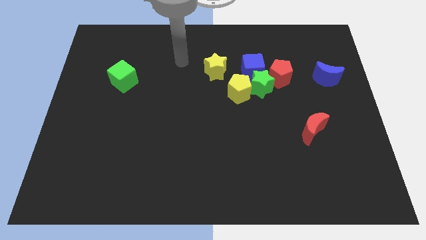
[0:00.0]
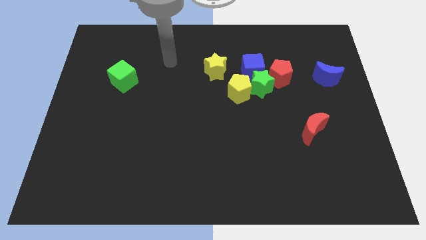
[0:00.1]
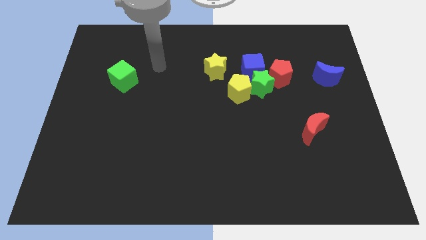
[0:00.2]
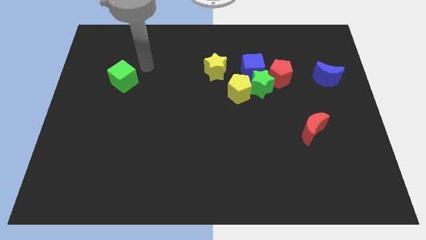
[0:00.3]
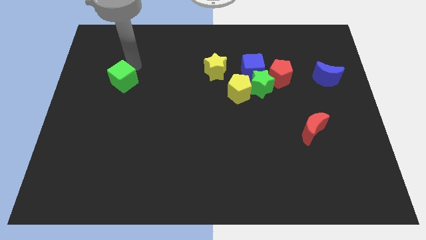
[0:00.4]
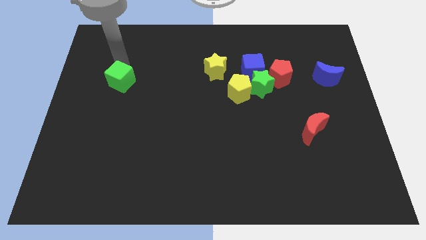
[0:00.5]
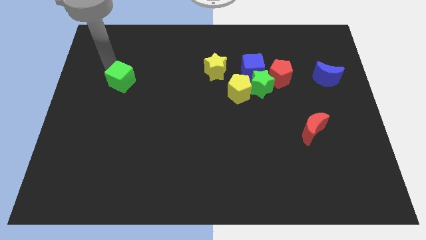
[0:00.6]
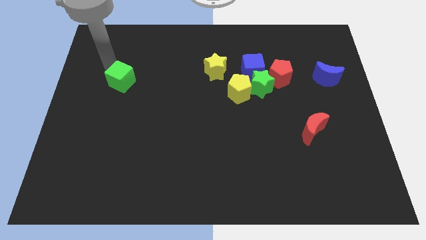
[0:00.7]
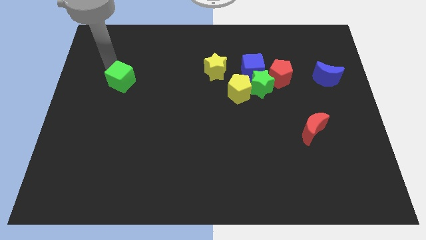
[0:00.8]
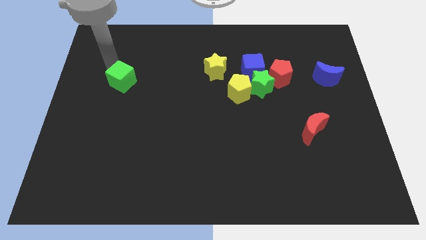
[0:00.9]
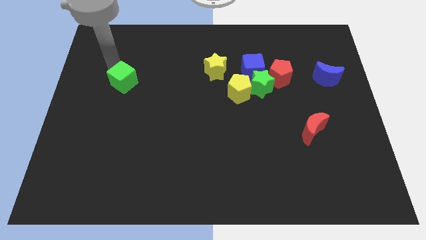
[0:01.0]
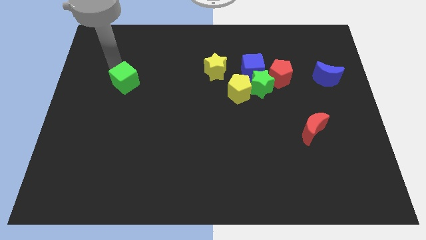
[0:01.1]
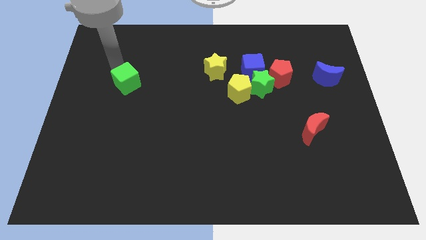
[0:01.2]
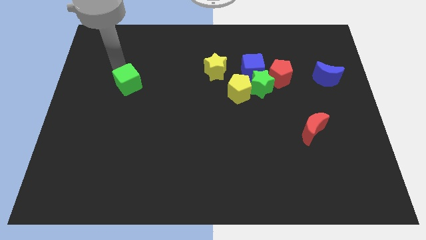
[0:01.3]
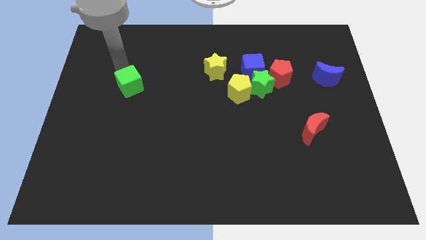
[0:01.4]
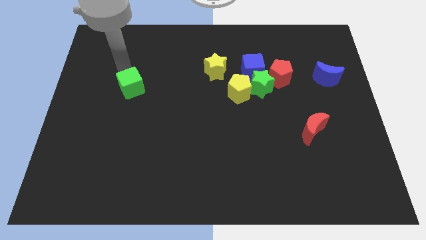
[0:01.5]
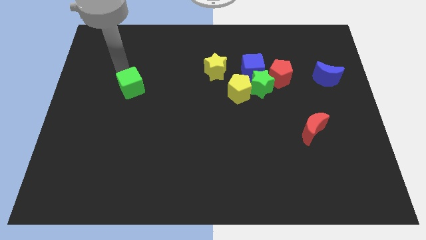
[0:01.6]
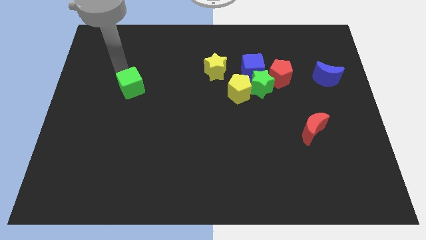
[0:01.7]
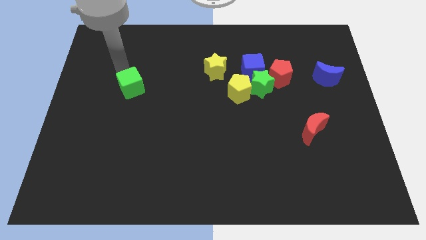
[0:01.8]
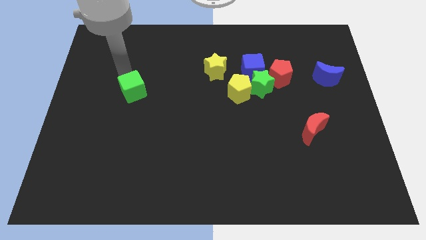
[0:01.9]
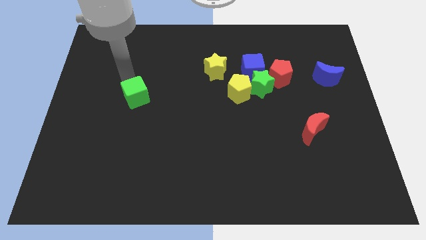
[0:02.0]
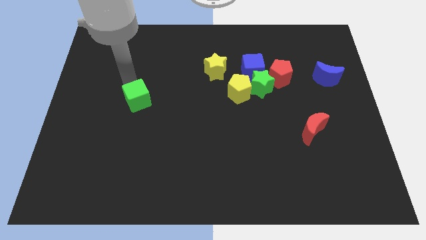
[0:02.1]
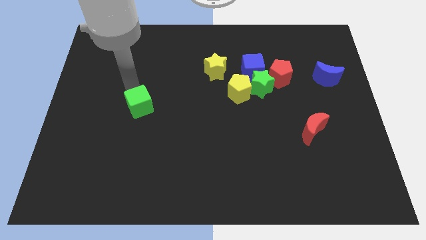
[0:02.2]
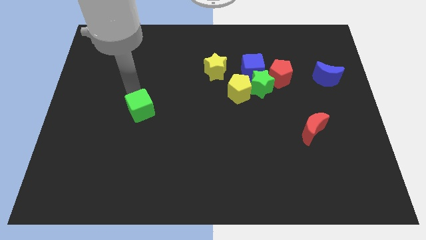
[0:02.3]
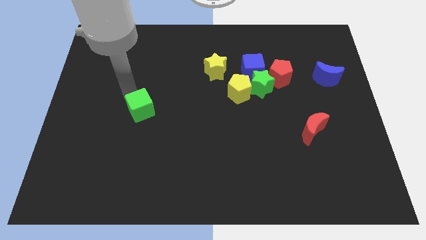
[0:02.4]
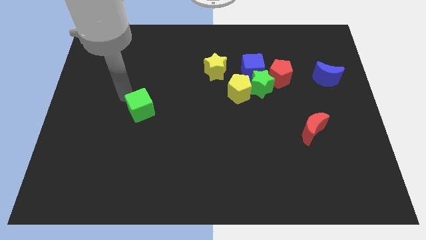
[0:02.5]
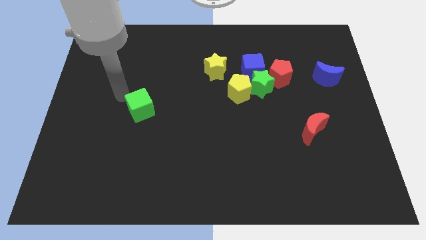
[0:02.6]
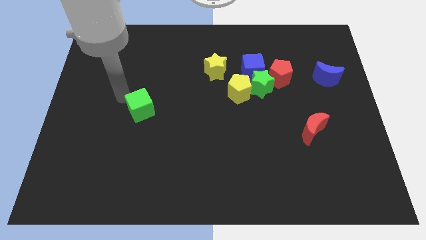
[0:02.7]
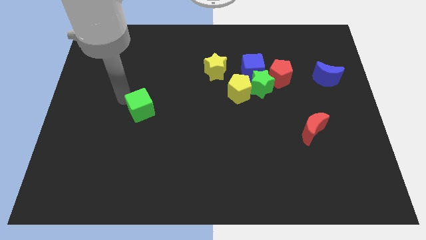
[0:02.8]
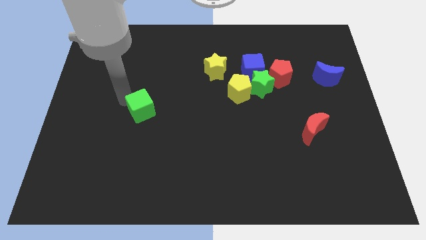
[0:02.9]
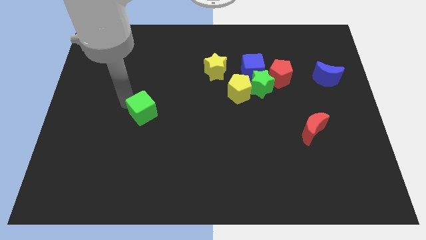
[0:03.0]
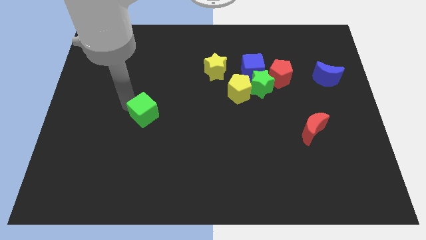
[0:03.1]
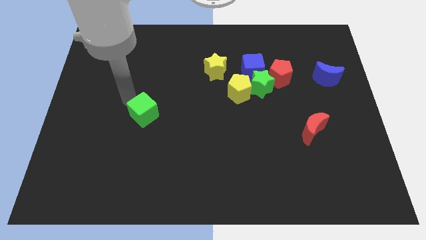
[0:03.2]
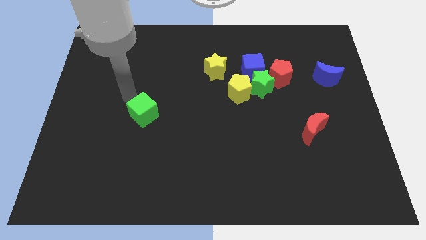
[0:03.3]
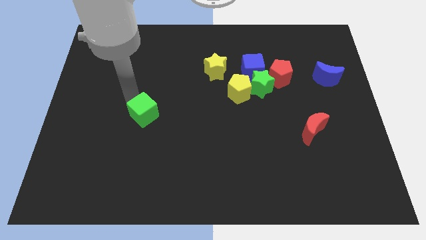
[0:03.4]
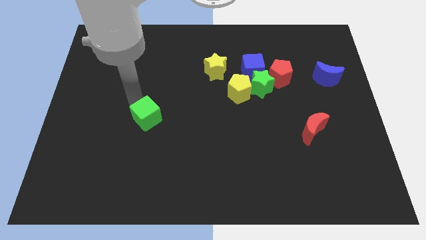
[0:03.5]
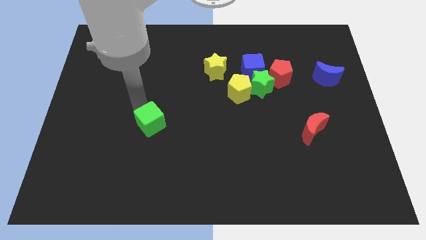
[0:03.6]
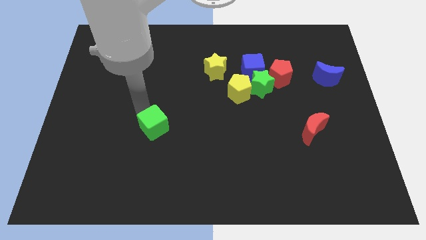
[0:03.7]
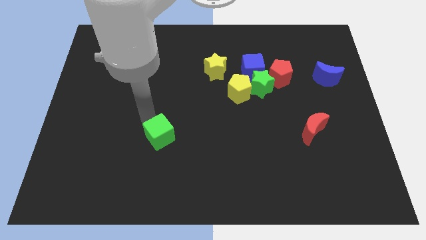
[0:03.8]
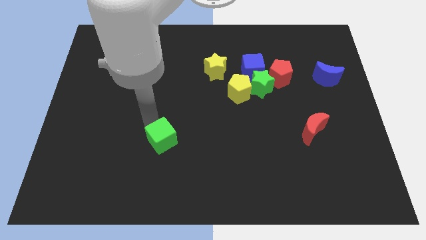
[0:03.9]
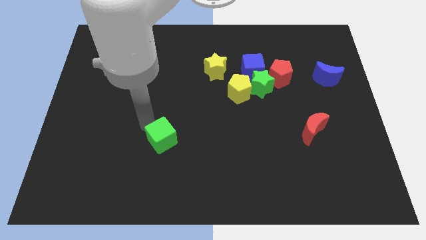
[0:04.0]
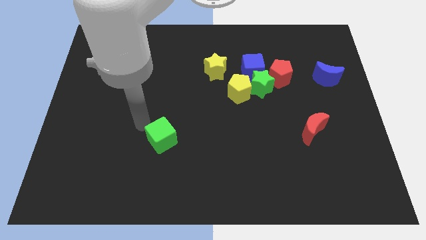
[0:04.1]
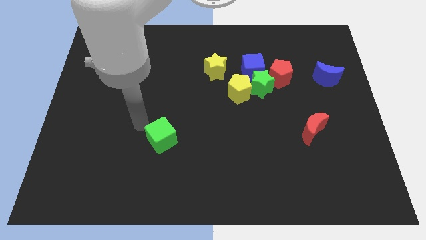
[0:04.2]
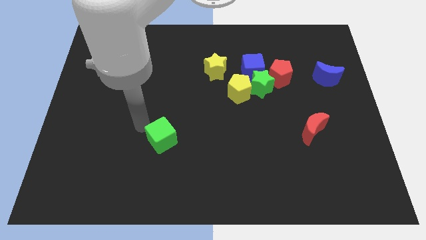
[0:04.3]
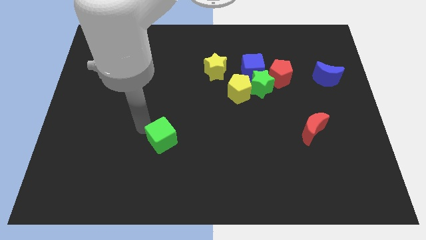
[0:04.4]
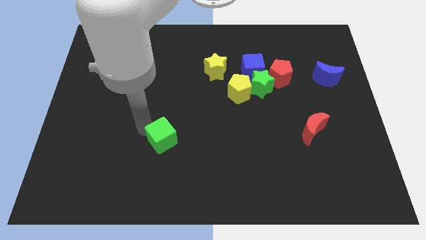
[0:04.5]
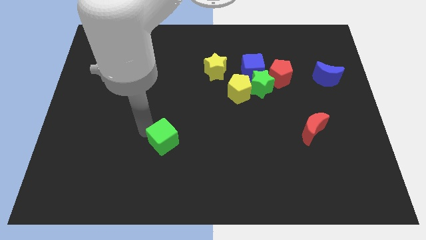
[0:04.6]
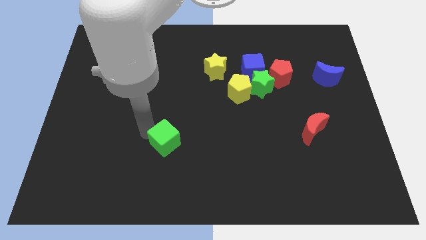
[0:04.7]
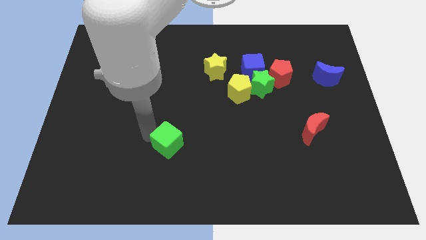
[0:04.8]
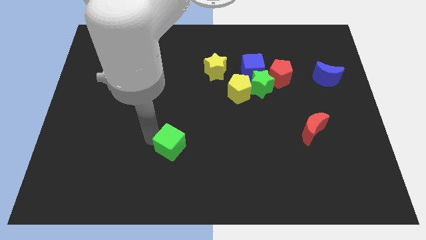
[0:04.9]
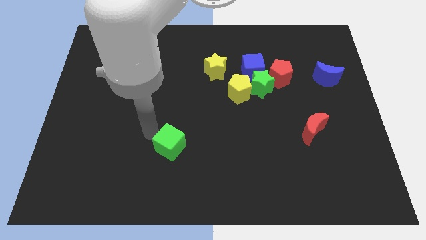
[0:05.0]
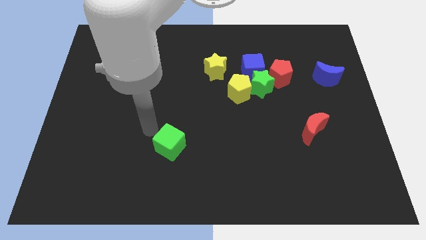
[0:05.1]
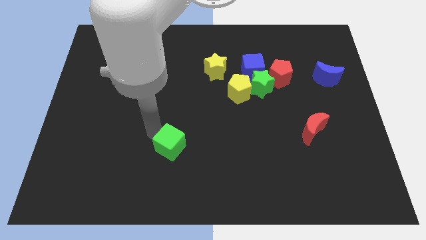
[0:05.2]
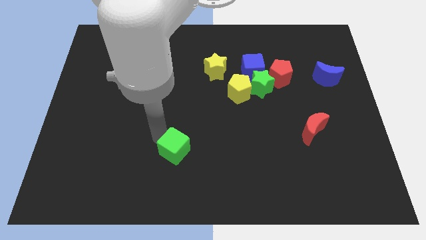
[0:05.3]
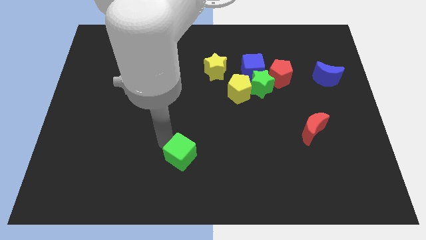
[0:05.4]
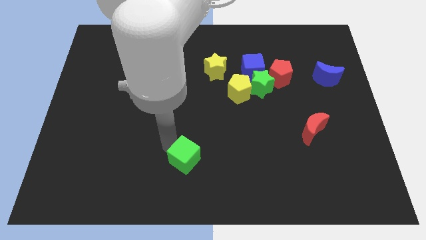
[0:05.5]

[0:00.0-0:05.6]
put the green cube to the bottom

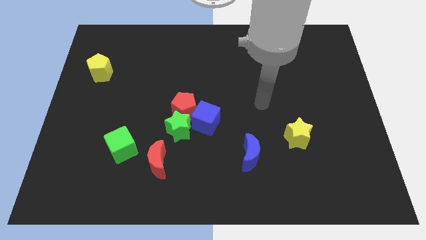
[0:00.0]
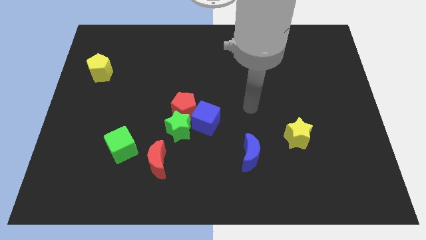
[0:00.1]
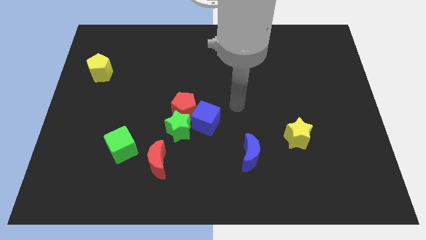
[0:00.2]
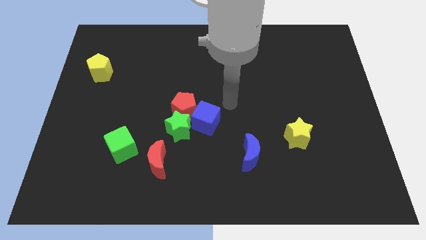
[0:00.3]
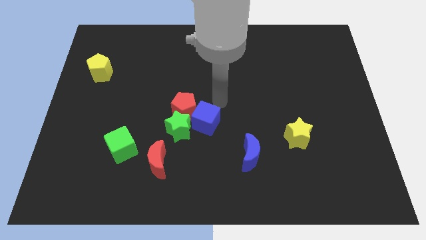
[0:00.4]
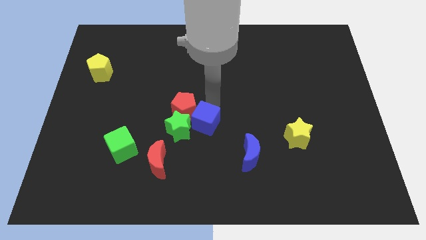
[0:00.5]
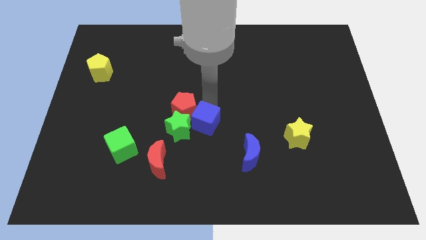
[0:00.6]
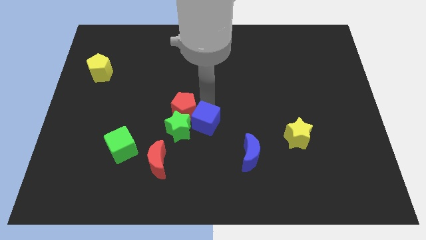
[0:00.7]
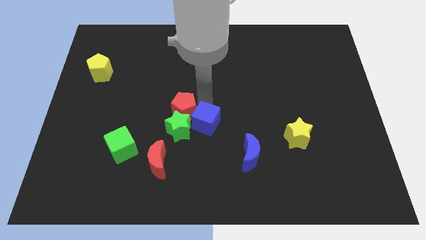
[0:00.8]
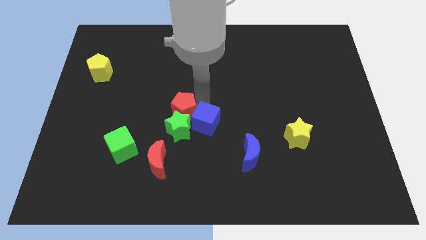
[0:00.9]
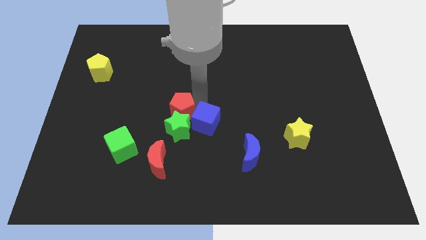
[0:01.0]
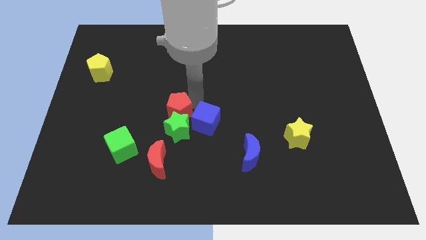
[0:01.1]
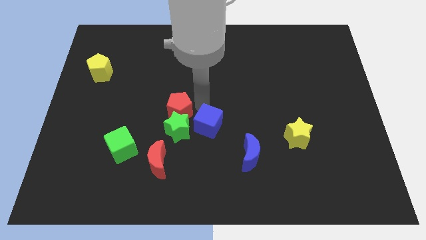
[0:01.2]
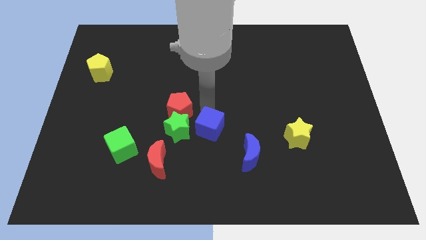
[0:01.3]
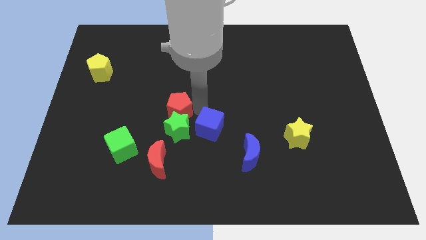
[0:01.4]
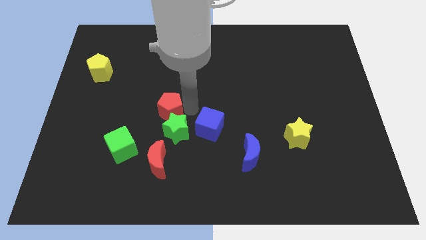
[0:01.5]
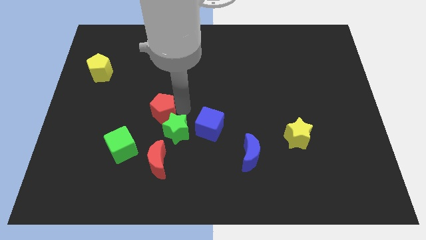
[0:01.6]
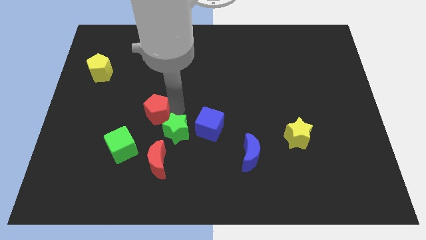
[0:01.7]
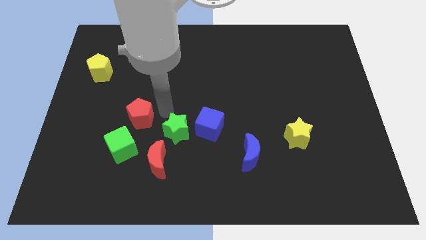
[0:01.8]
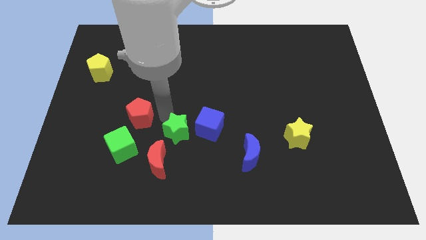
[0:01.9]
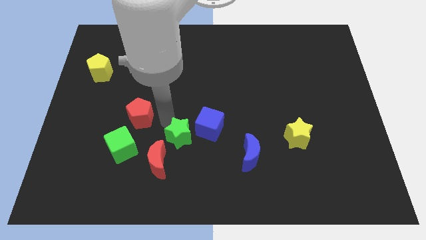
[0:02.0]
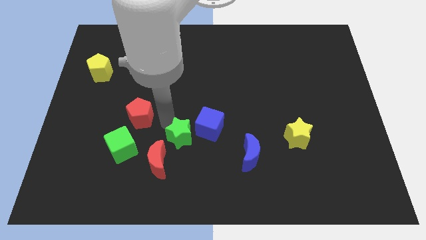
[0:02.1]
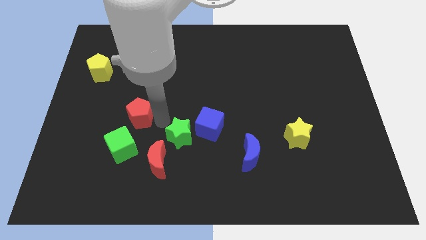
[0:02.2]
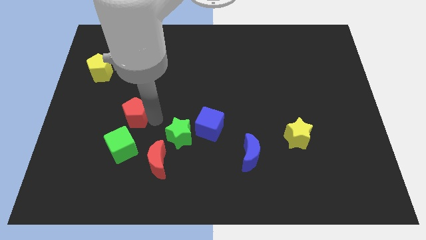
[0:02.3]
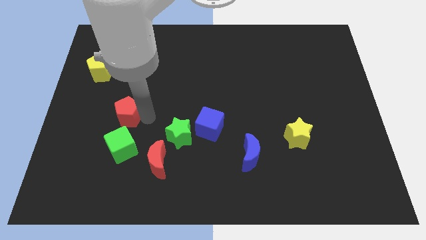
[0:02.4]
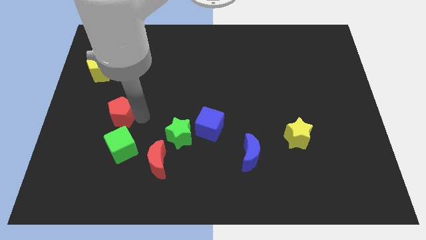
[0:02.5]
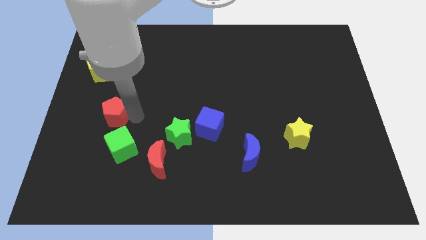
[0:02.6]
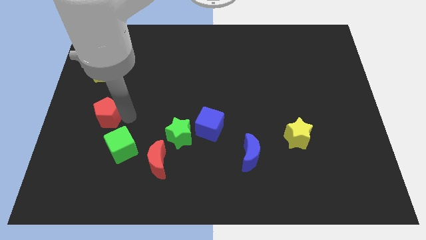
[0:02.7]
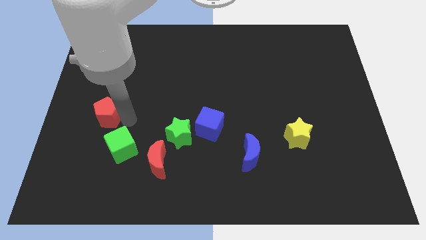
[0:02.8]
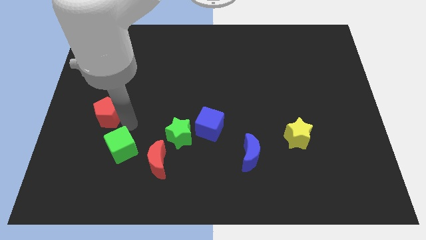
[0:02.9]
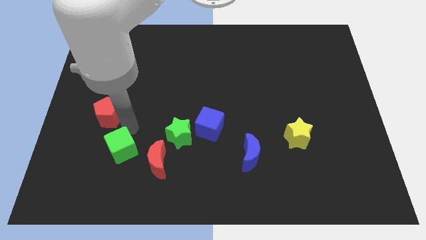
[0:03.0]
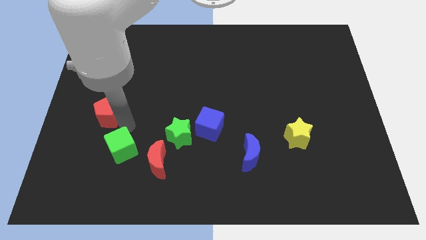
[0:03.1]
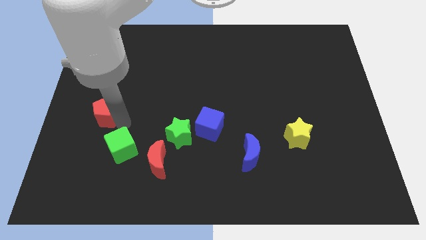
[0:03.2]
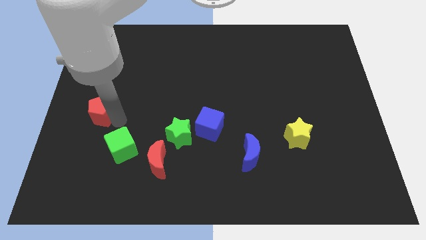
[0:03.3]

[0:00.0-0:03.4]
put the red pentagon to the left side
